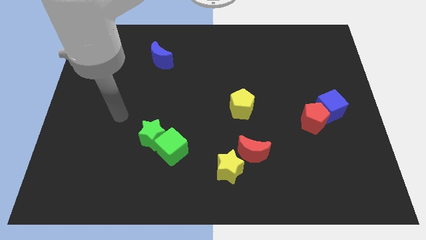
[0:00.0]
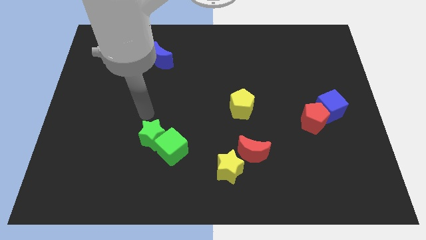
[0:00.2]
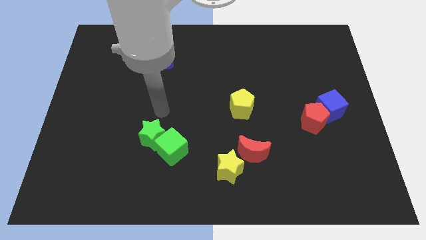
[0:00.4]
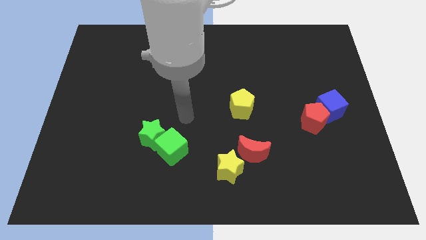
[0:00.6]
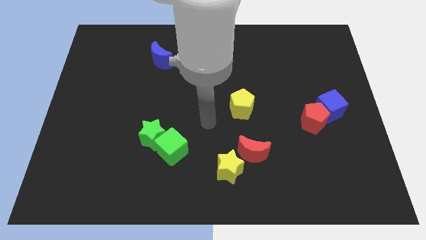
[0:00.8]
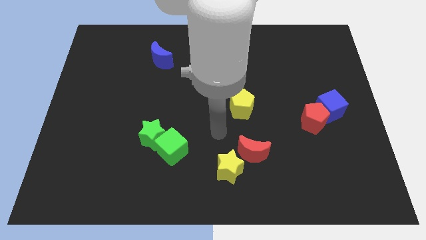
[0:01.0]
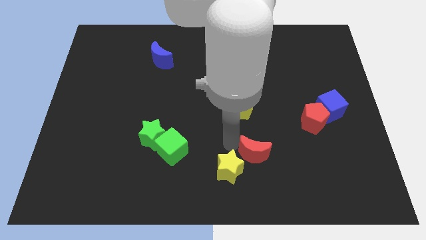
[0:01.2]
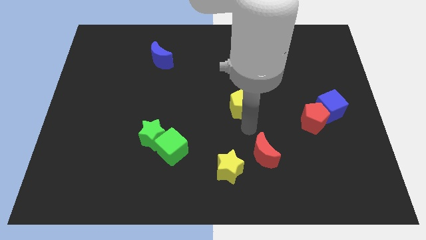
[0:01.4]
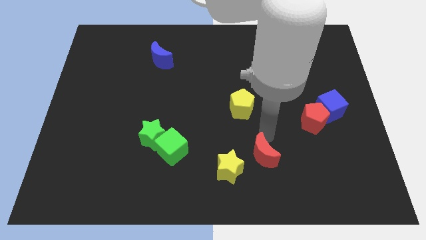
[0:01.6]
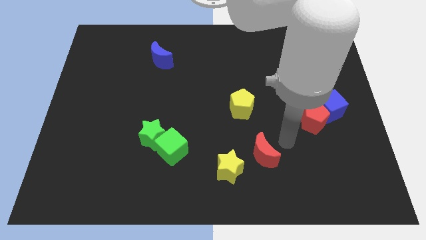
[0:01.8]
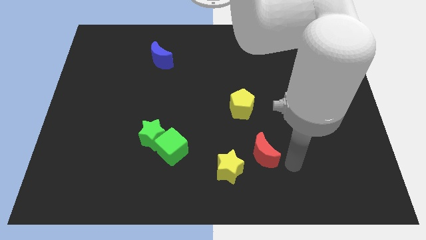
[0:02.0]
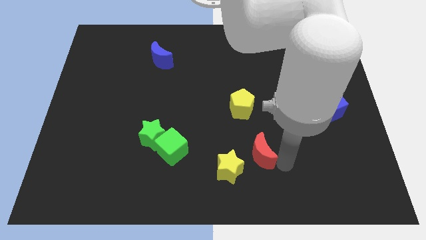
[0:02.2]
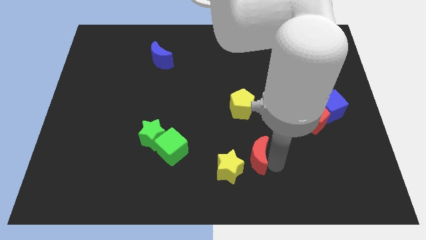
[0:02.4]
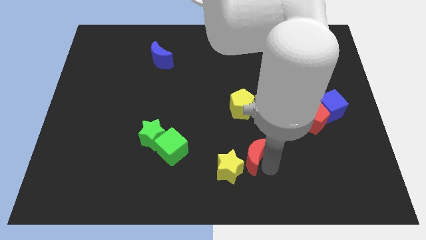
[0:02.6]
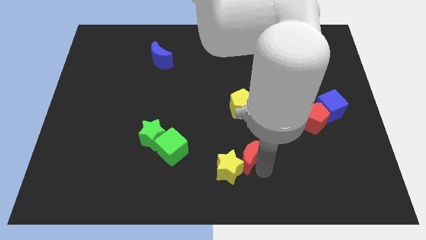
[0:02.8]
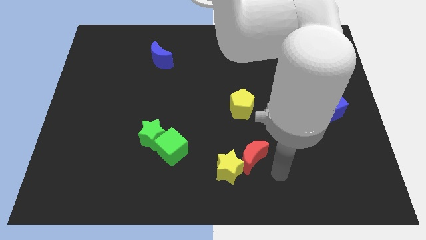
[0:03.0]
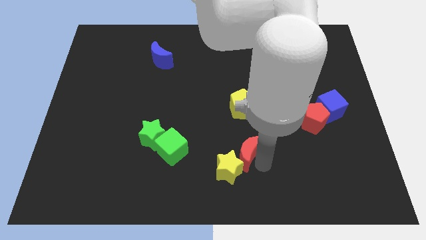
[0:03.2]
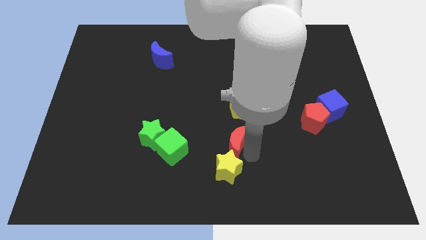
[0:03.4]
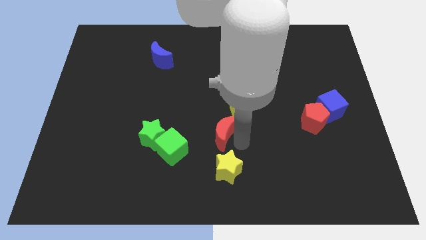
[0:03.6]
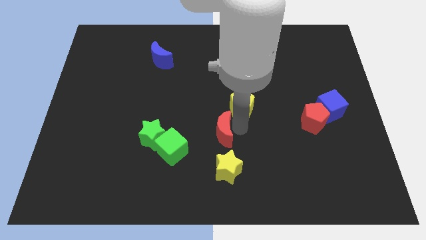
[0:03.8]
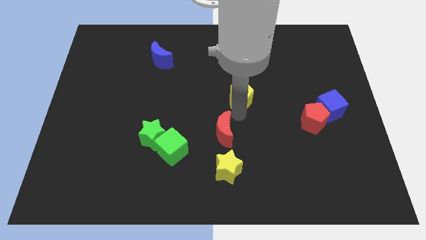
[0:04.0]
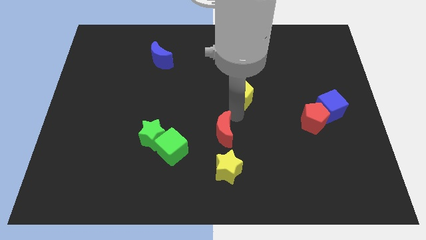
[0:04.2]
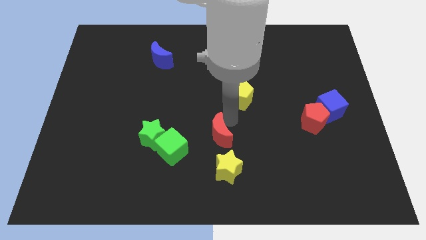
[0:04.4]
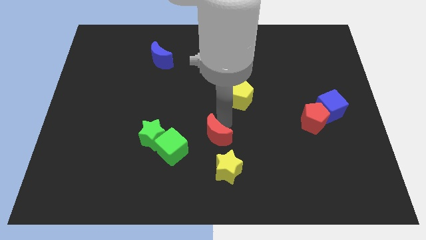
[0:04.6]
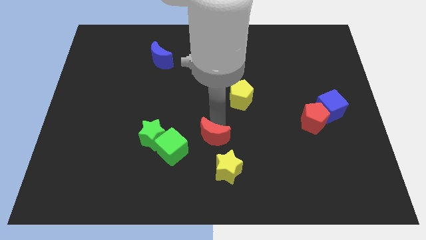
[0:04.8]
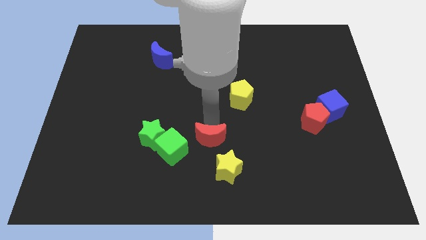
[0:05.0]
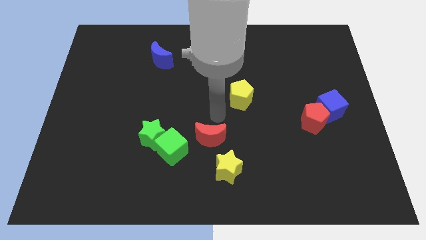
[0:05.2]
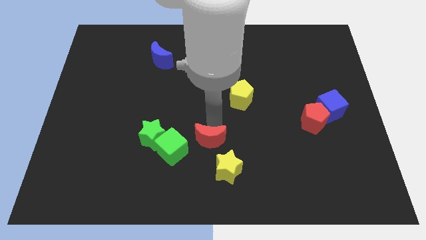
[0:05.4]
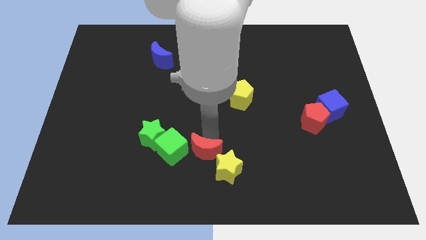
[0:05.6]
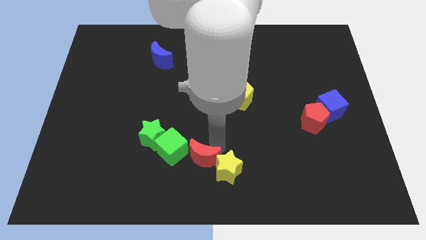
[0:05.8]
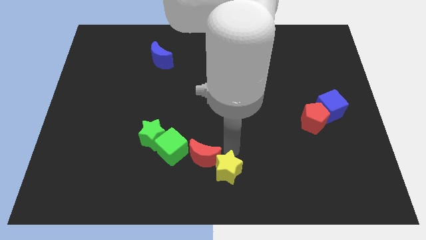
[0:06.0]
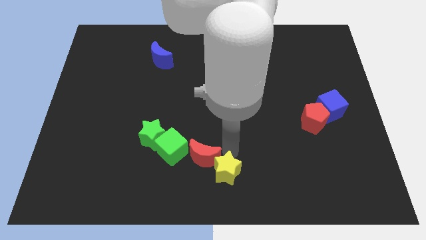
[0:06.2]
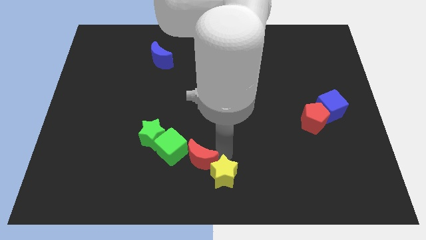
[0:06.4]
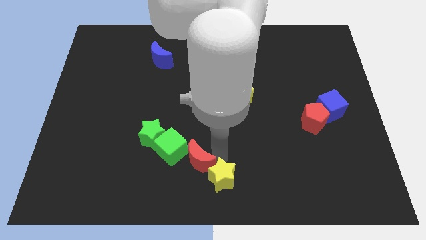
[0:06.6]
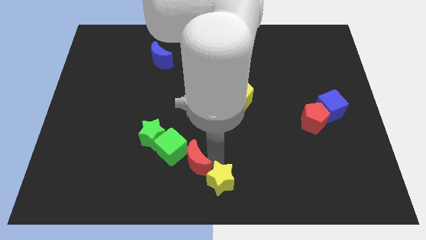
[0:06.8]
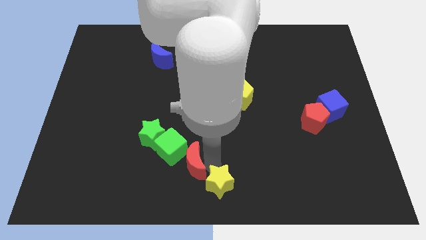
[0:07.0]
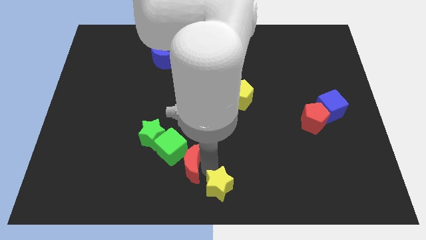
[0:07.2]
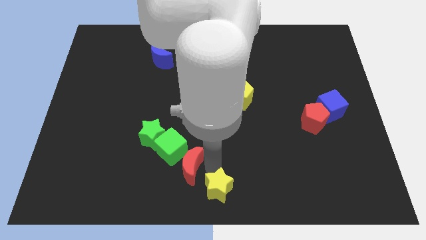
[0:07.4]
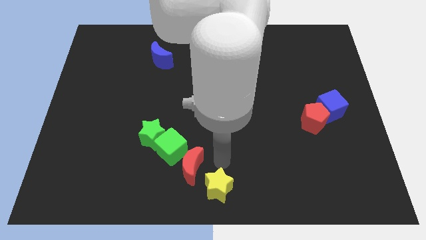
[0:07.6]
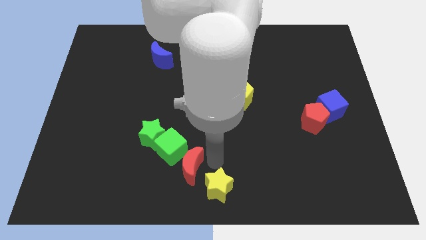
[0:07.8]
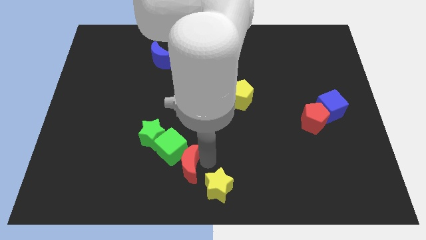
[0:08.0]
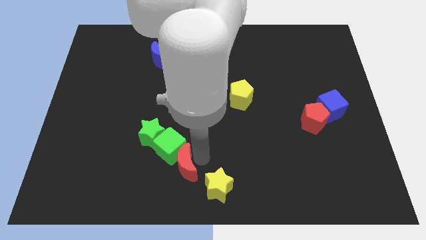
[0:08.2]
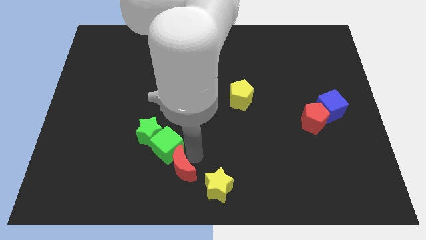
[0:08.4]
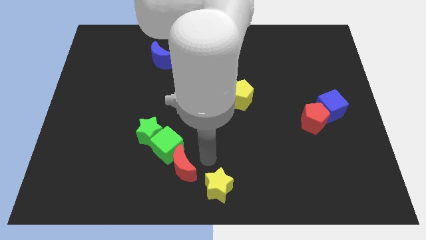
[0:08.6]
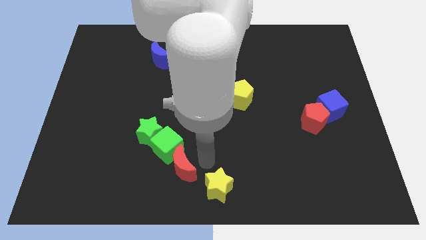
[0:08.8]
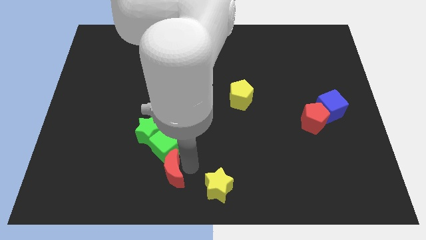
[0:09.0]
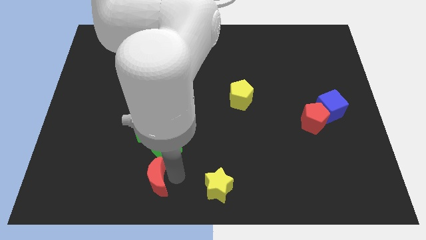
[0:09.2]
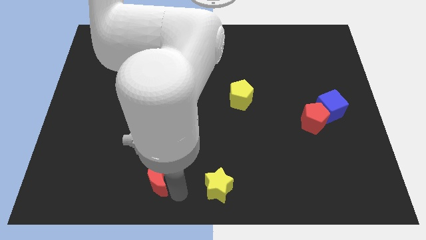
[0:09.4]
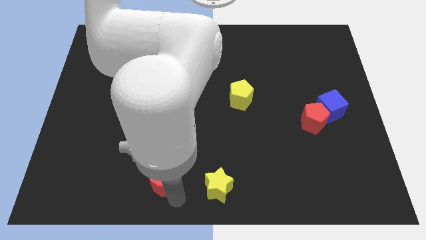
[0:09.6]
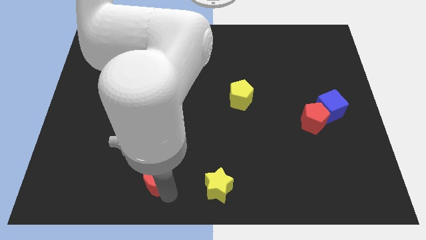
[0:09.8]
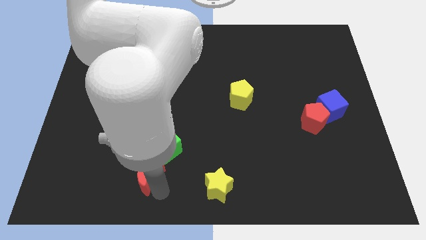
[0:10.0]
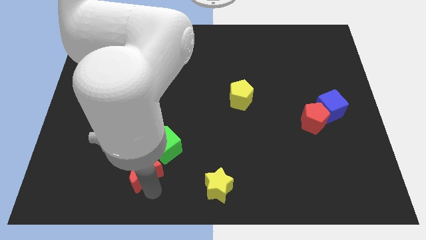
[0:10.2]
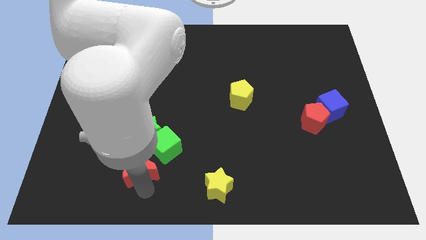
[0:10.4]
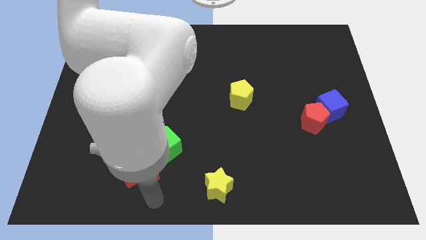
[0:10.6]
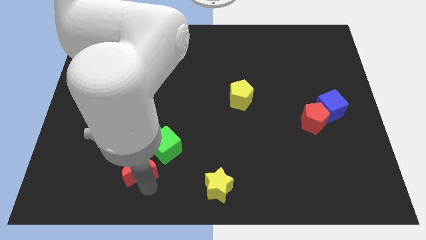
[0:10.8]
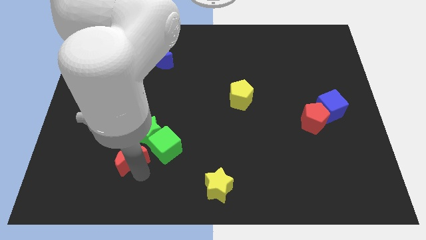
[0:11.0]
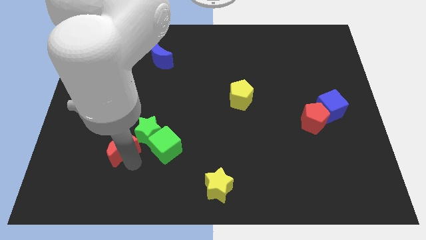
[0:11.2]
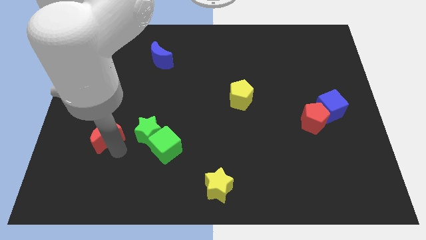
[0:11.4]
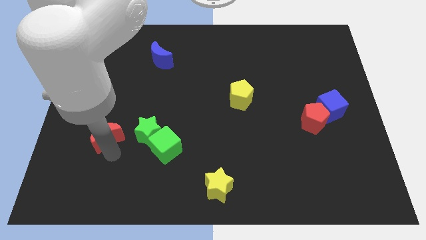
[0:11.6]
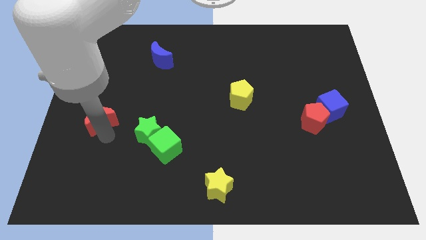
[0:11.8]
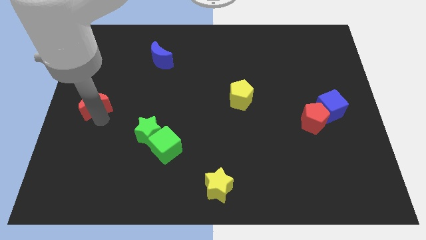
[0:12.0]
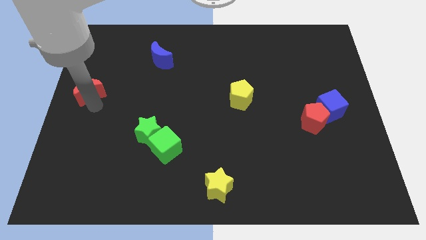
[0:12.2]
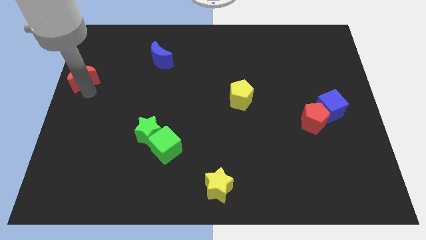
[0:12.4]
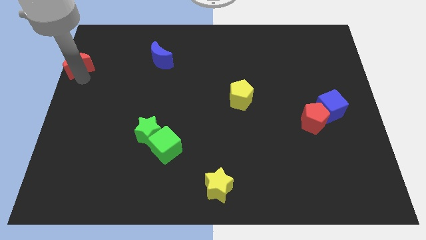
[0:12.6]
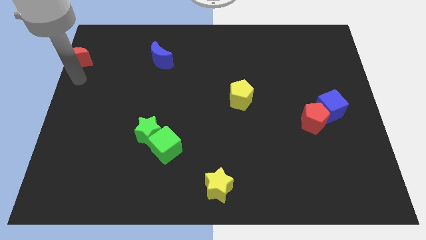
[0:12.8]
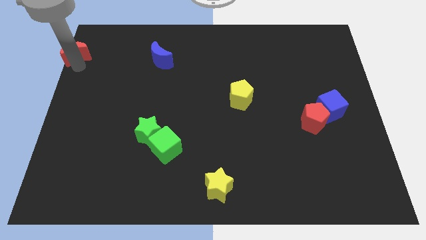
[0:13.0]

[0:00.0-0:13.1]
push the red moon to the top left of the board
